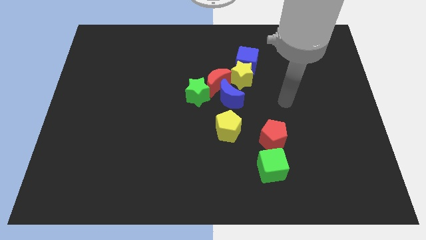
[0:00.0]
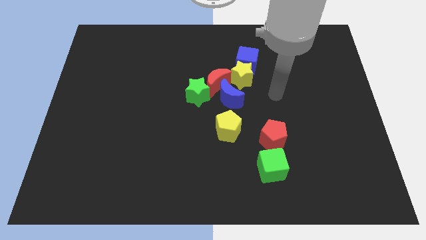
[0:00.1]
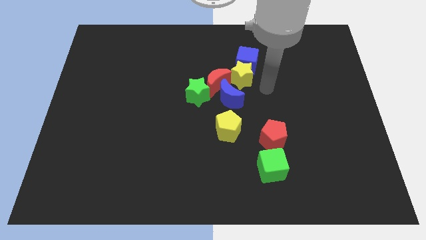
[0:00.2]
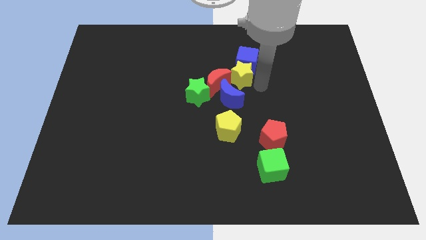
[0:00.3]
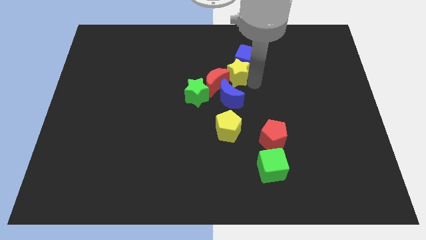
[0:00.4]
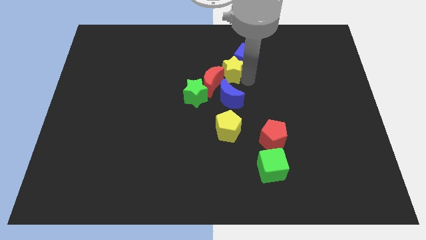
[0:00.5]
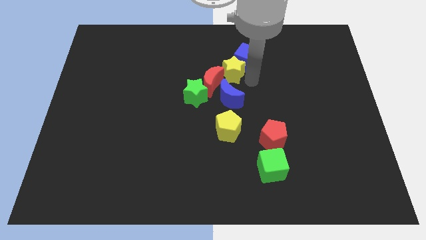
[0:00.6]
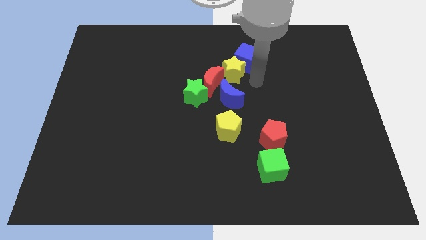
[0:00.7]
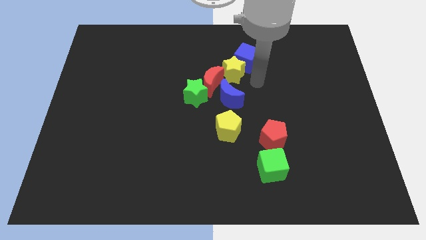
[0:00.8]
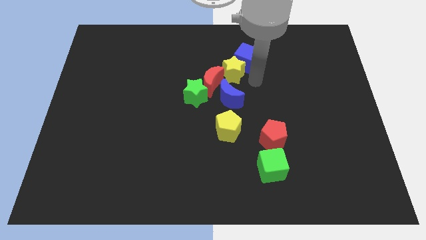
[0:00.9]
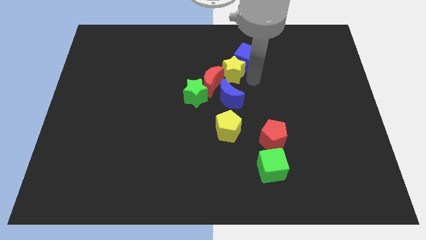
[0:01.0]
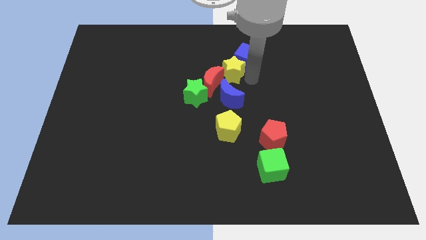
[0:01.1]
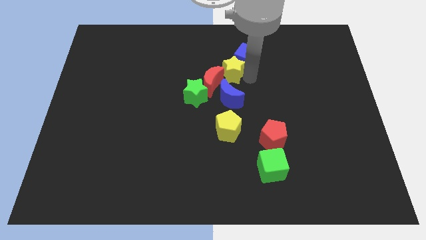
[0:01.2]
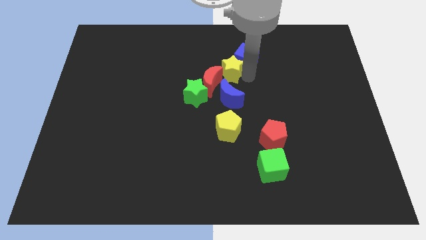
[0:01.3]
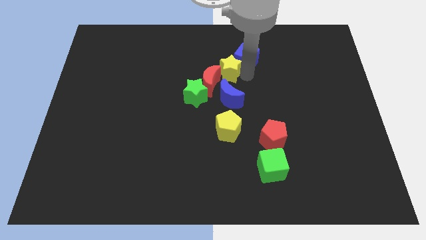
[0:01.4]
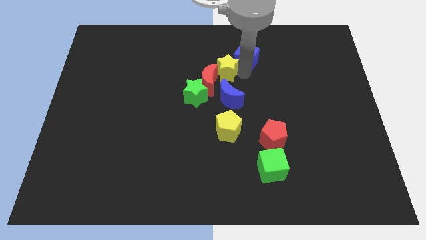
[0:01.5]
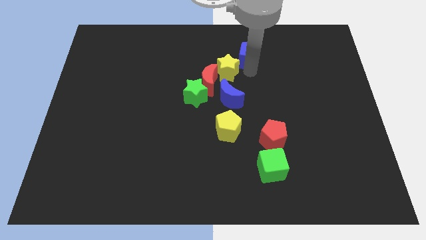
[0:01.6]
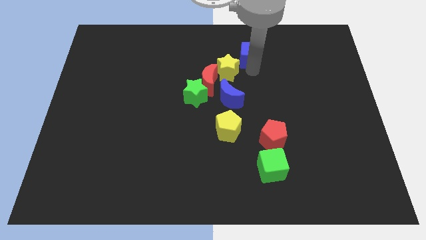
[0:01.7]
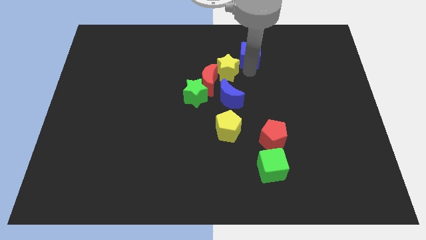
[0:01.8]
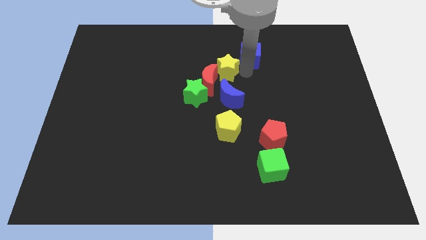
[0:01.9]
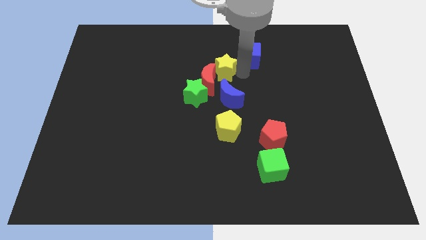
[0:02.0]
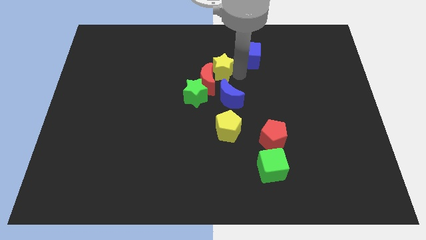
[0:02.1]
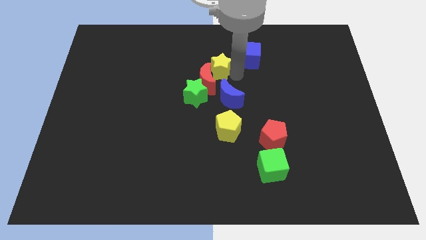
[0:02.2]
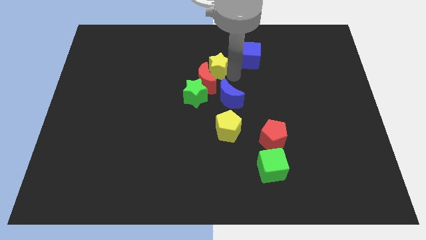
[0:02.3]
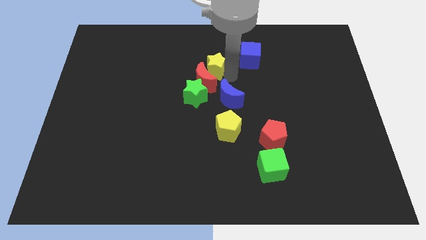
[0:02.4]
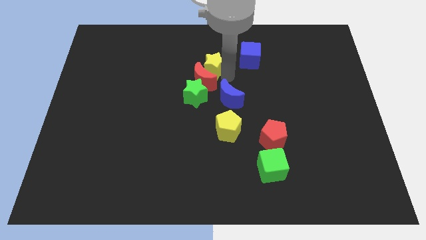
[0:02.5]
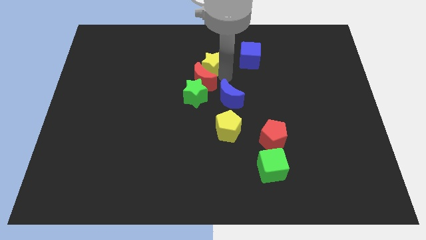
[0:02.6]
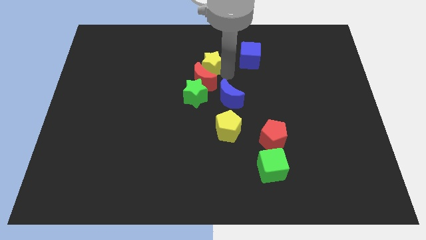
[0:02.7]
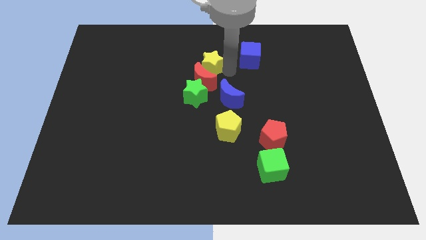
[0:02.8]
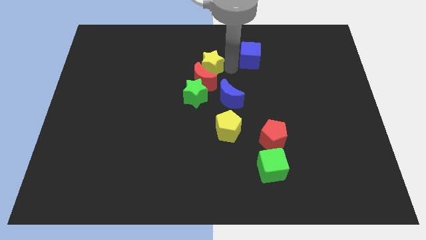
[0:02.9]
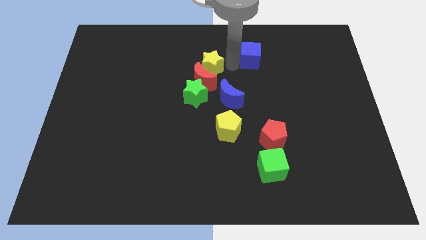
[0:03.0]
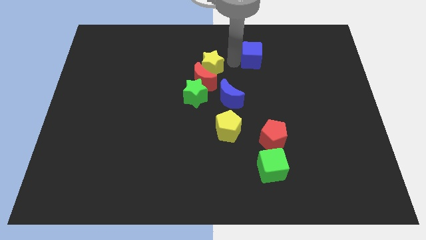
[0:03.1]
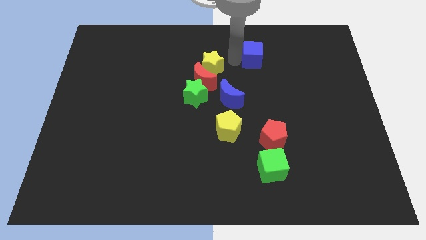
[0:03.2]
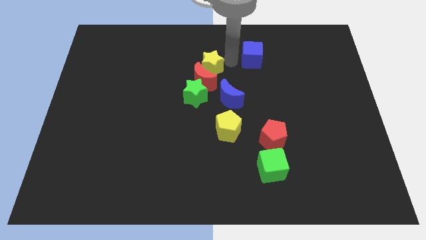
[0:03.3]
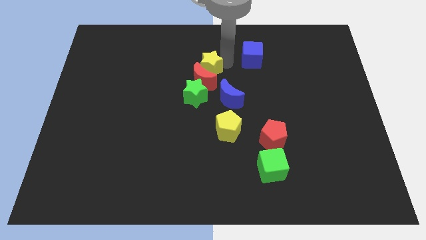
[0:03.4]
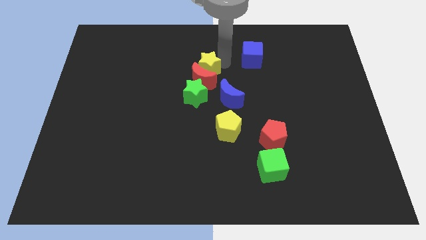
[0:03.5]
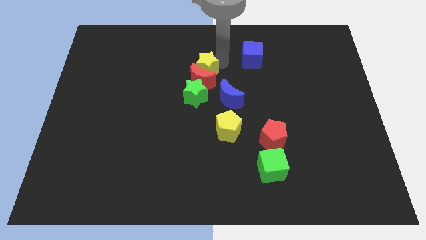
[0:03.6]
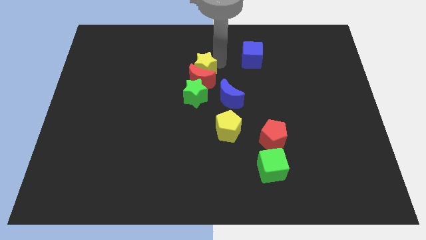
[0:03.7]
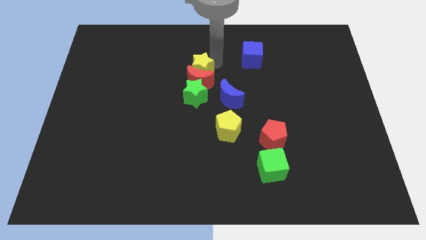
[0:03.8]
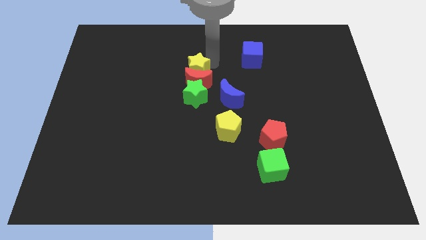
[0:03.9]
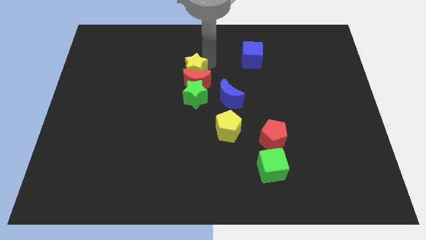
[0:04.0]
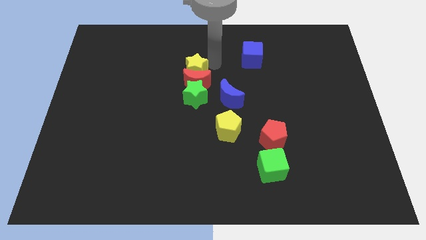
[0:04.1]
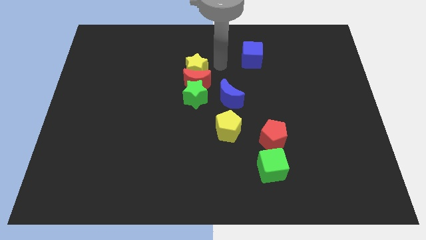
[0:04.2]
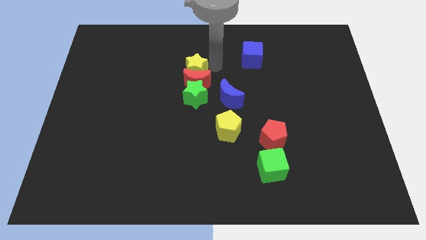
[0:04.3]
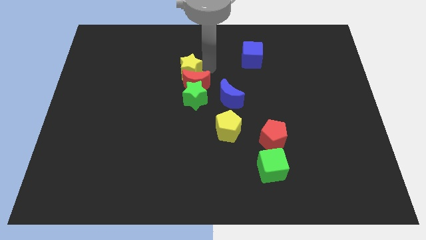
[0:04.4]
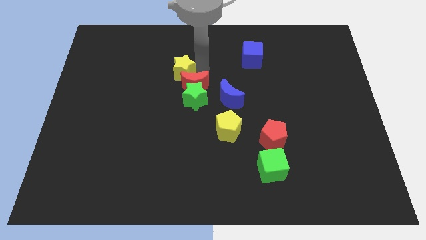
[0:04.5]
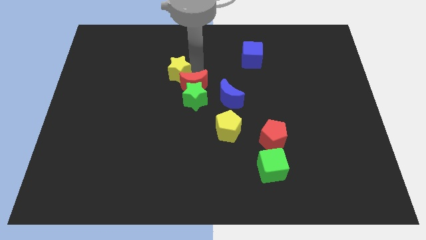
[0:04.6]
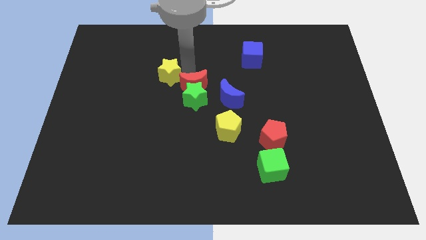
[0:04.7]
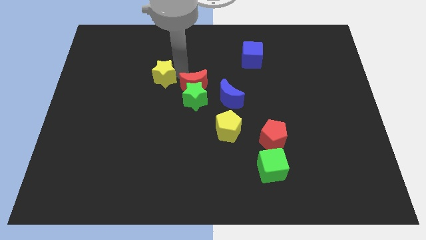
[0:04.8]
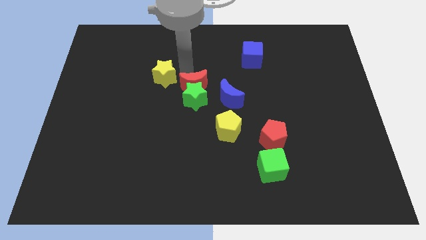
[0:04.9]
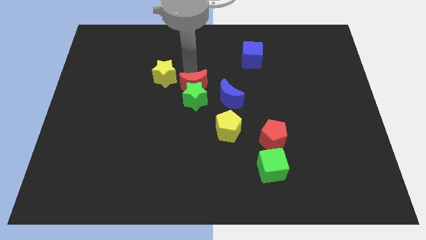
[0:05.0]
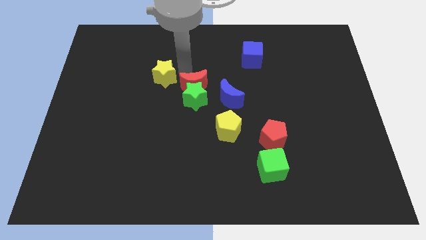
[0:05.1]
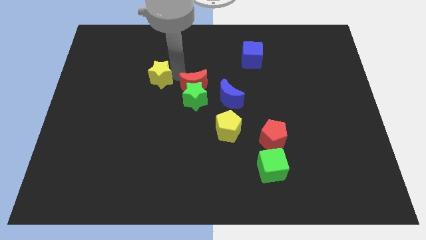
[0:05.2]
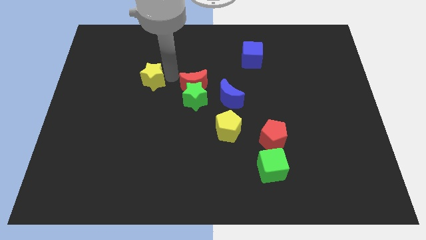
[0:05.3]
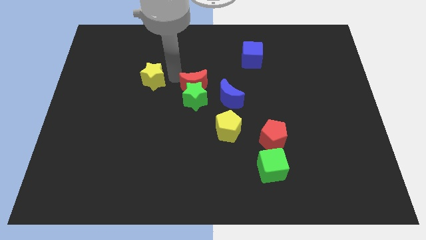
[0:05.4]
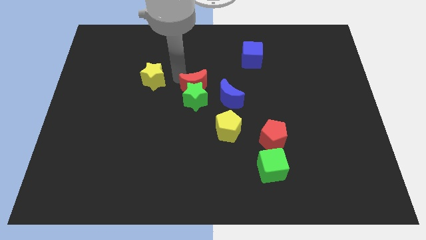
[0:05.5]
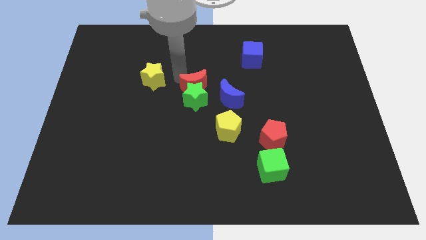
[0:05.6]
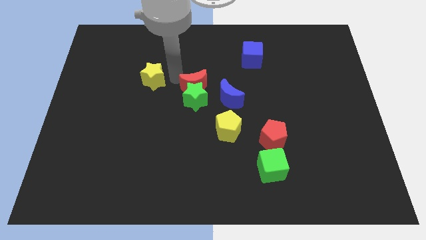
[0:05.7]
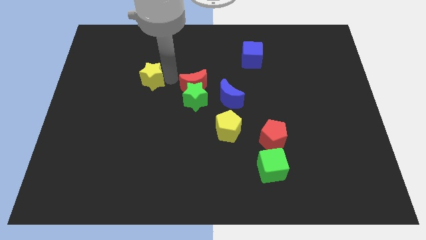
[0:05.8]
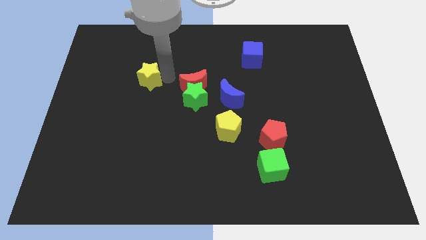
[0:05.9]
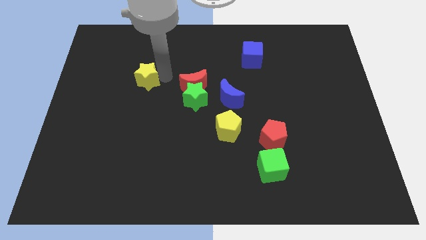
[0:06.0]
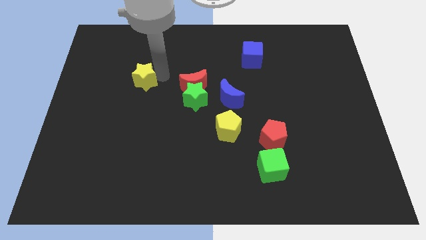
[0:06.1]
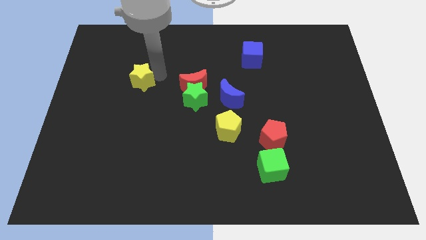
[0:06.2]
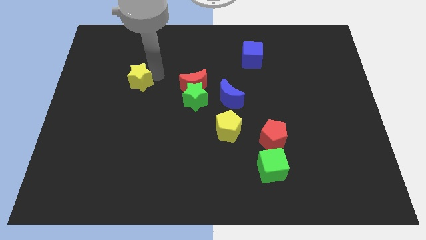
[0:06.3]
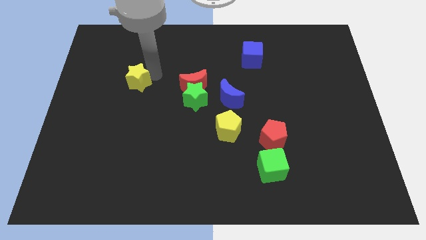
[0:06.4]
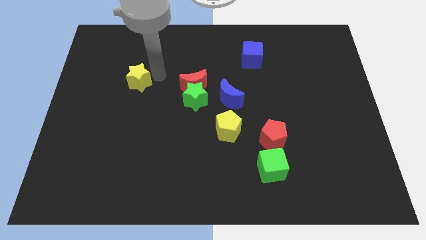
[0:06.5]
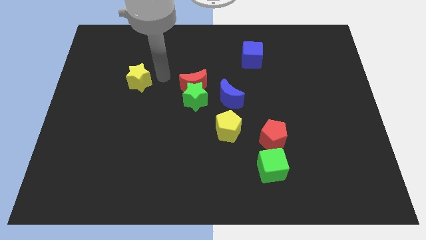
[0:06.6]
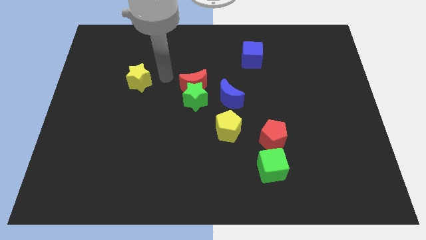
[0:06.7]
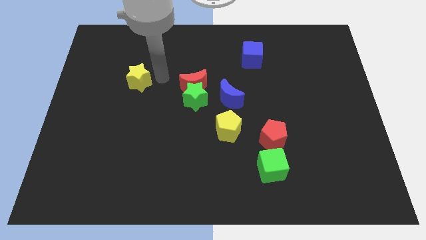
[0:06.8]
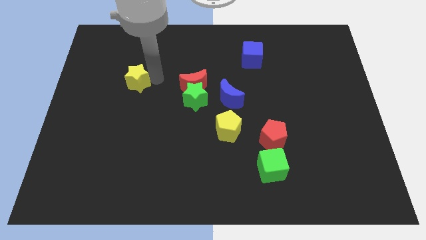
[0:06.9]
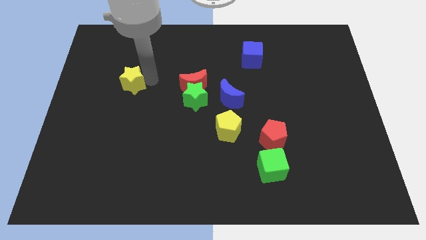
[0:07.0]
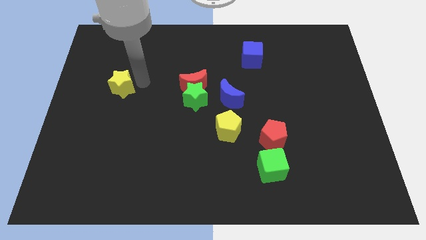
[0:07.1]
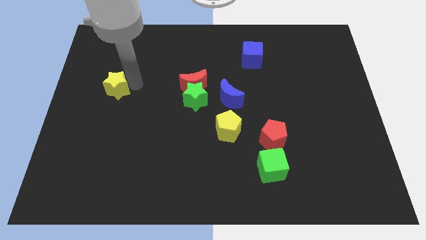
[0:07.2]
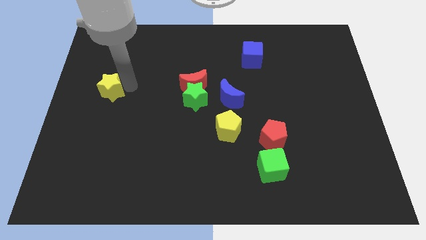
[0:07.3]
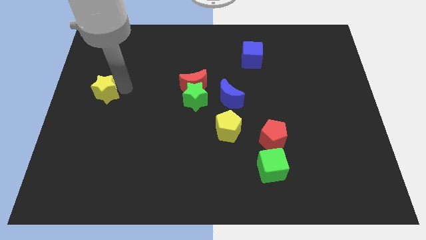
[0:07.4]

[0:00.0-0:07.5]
slide the yellow star to the left side of the board
